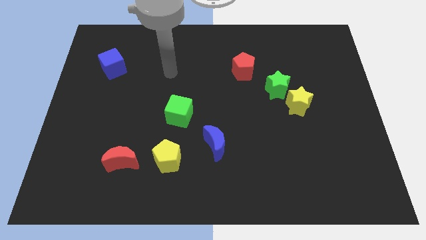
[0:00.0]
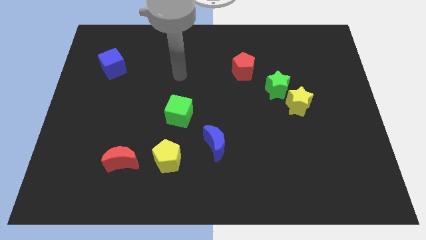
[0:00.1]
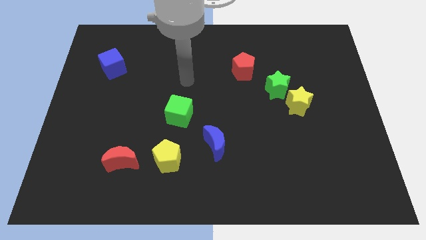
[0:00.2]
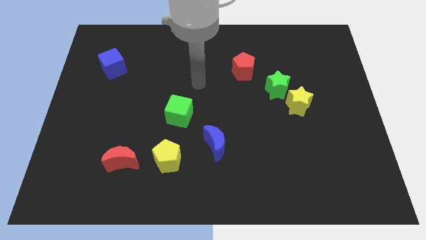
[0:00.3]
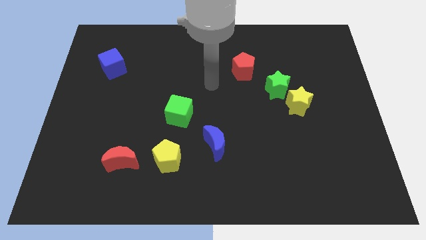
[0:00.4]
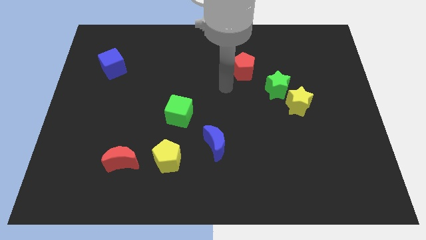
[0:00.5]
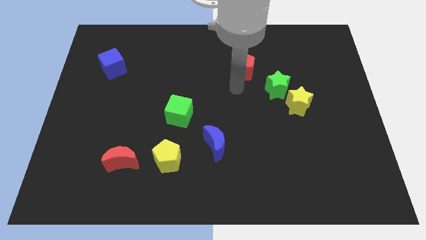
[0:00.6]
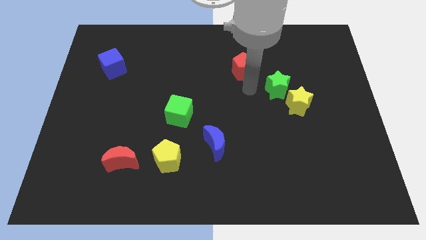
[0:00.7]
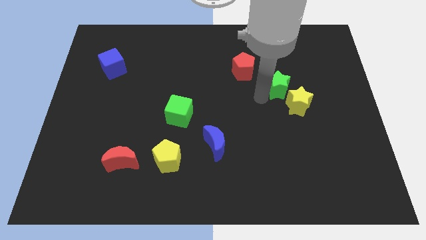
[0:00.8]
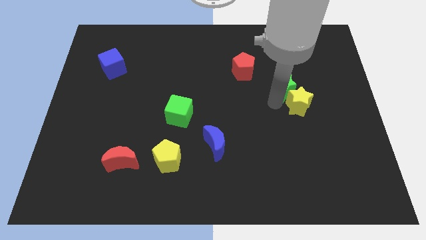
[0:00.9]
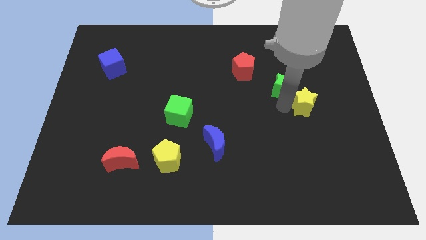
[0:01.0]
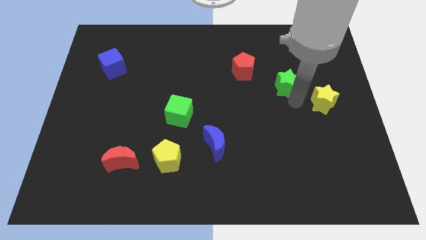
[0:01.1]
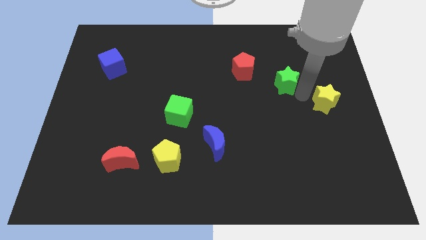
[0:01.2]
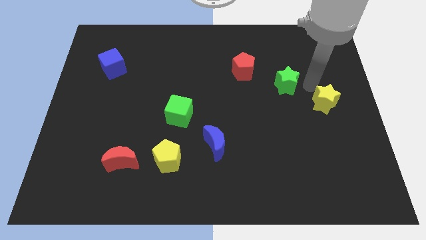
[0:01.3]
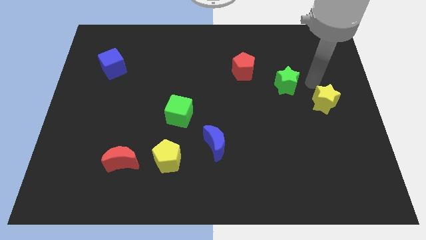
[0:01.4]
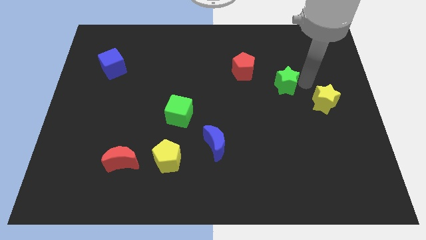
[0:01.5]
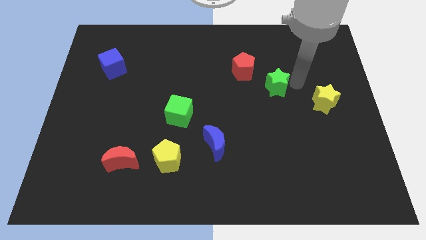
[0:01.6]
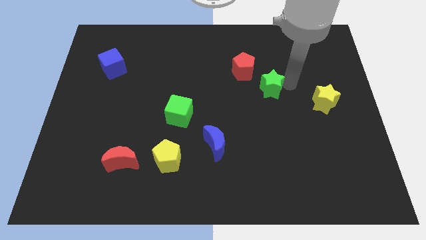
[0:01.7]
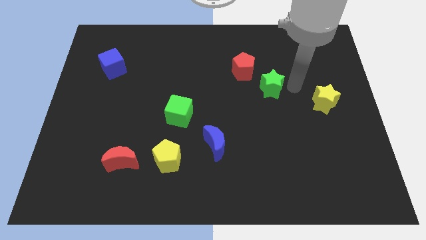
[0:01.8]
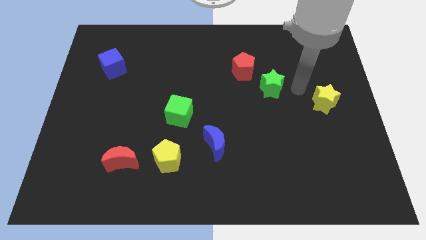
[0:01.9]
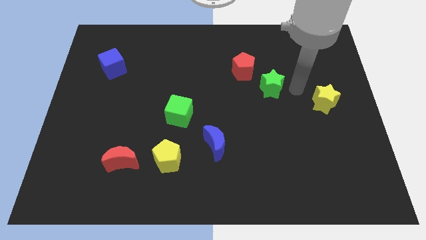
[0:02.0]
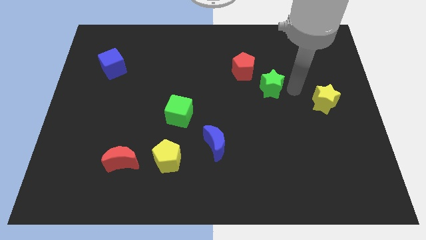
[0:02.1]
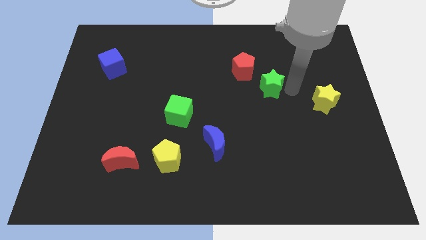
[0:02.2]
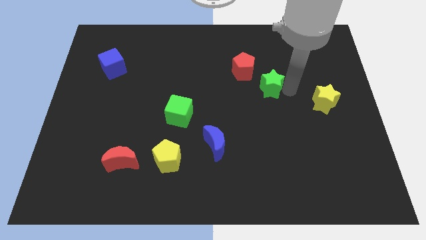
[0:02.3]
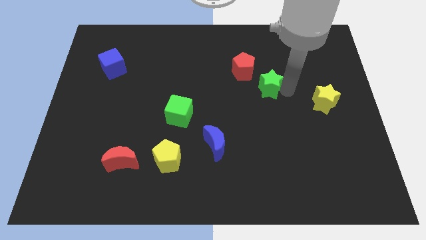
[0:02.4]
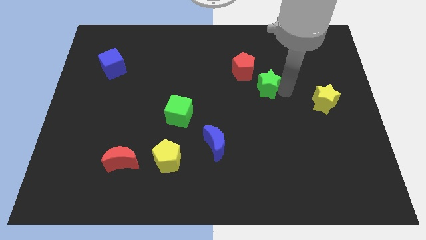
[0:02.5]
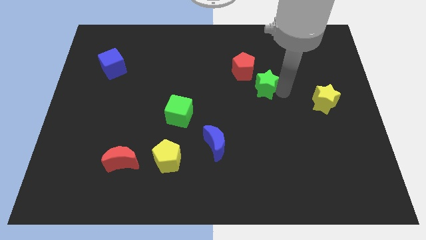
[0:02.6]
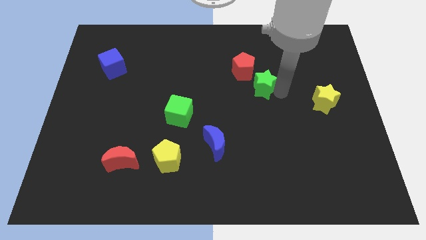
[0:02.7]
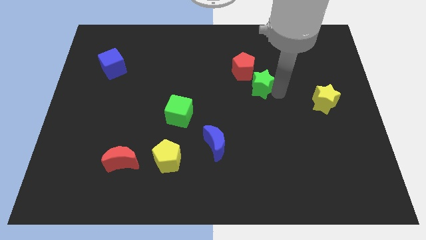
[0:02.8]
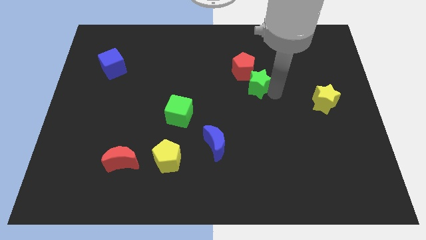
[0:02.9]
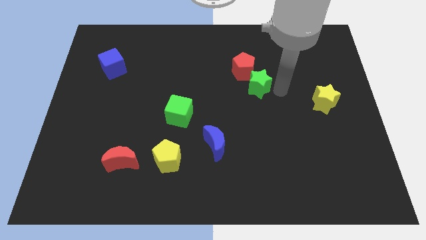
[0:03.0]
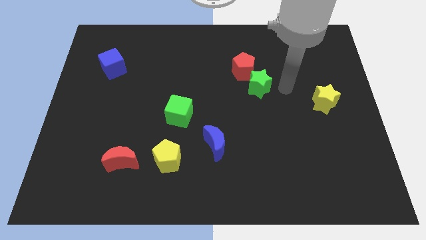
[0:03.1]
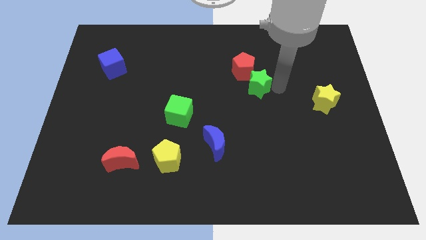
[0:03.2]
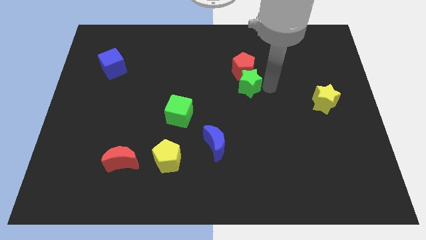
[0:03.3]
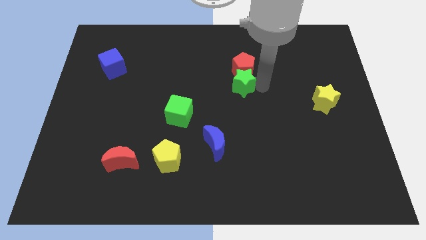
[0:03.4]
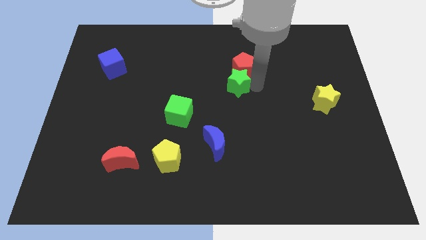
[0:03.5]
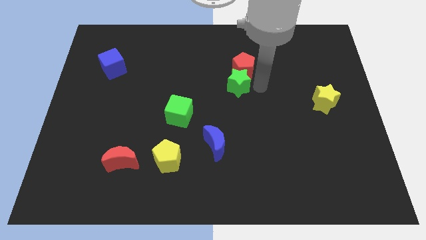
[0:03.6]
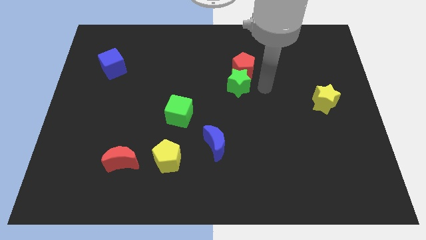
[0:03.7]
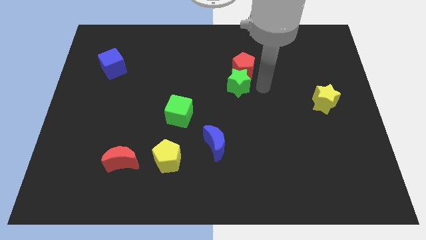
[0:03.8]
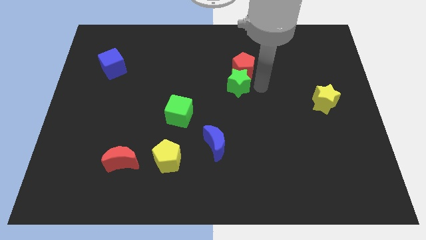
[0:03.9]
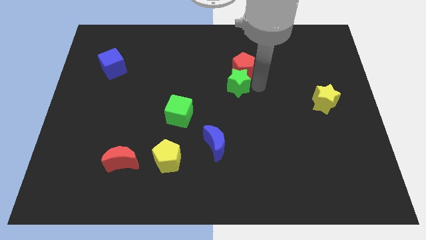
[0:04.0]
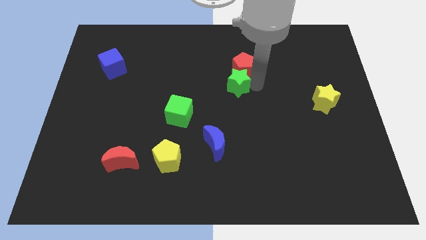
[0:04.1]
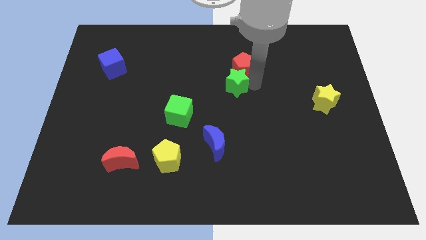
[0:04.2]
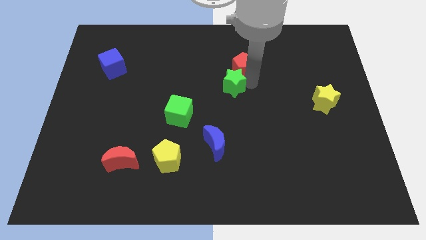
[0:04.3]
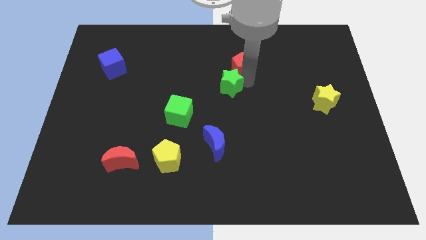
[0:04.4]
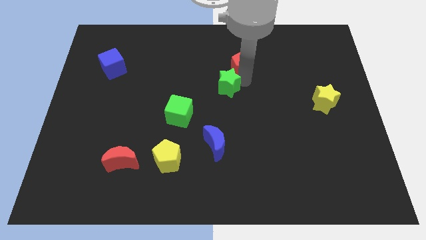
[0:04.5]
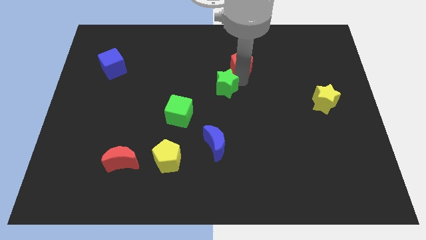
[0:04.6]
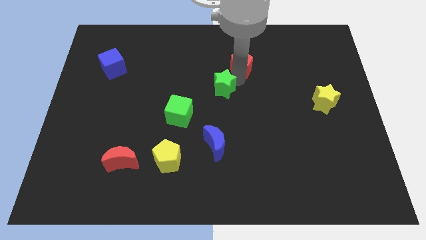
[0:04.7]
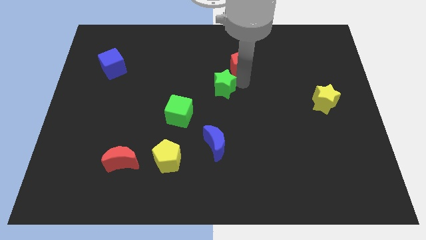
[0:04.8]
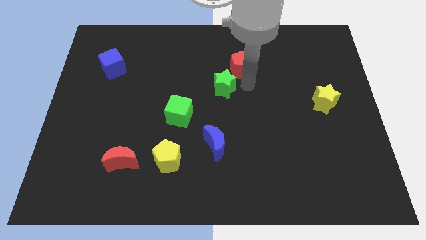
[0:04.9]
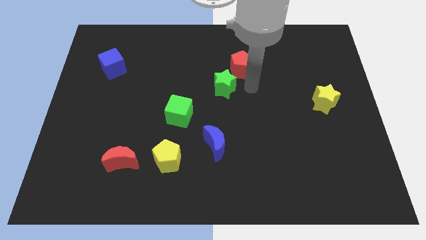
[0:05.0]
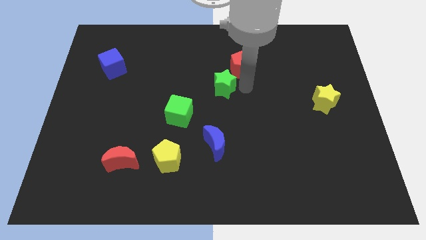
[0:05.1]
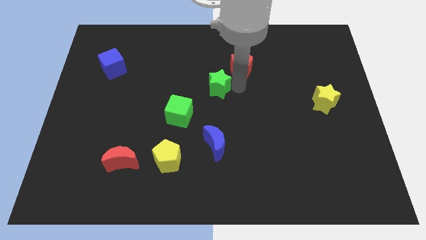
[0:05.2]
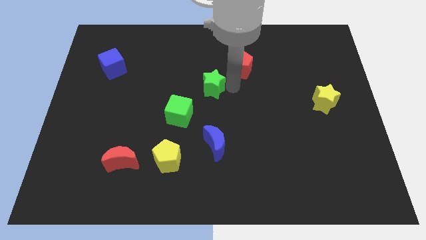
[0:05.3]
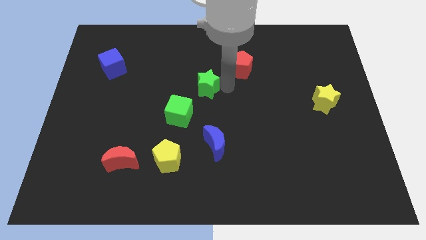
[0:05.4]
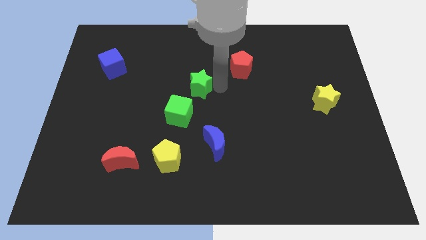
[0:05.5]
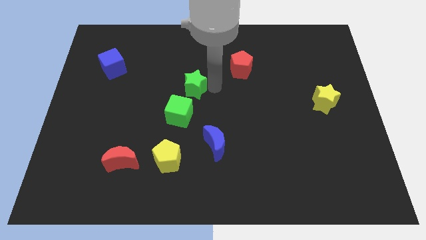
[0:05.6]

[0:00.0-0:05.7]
move the green star to the left

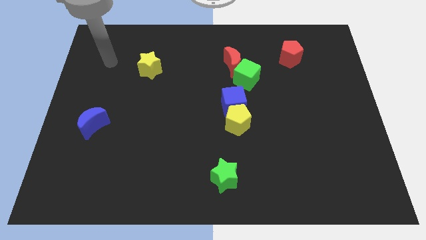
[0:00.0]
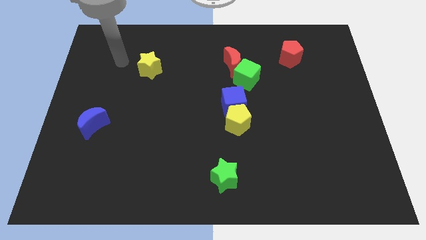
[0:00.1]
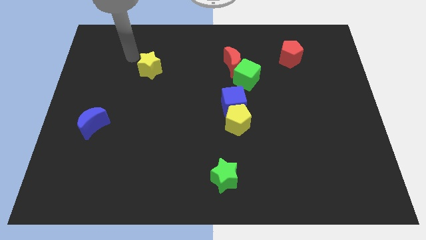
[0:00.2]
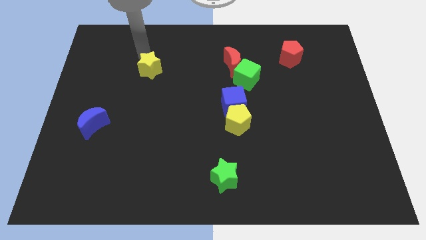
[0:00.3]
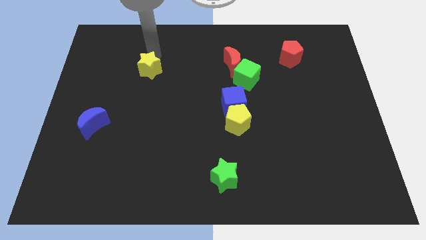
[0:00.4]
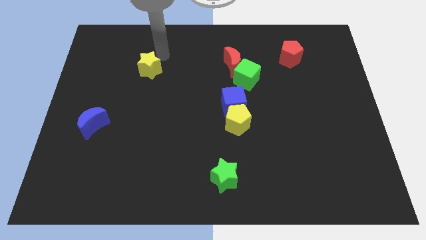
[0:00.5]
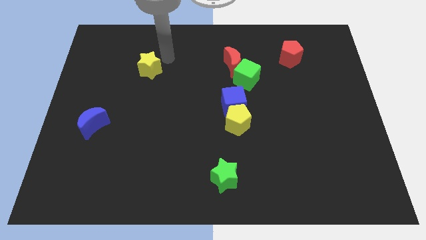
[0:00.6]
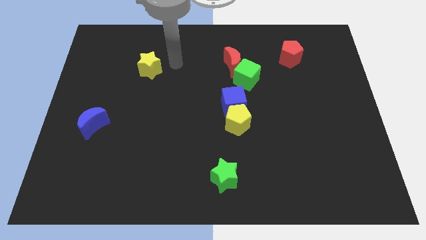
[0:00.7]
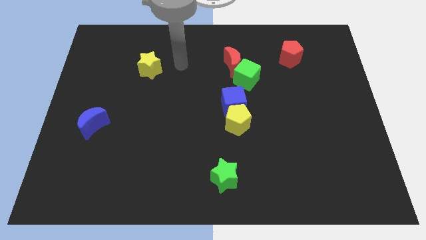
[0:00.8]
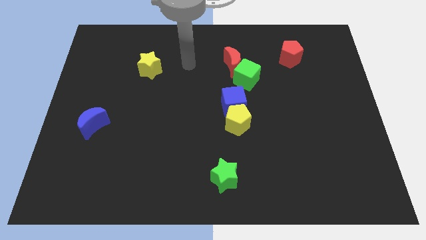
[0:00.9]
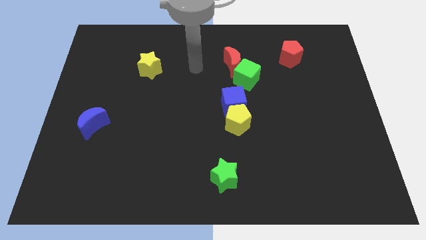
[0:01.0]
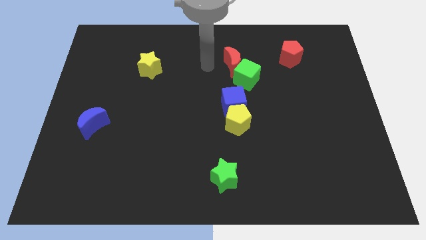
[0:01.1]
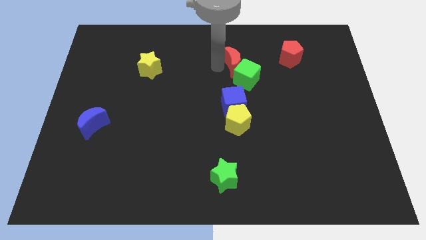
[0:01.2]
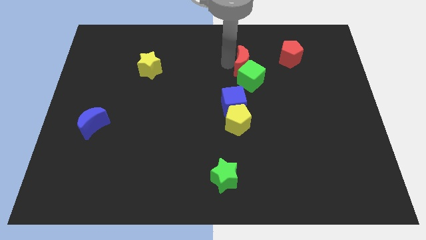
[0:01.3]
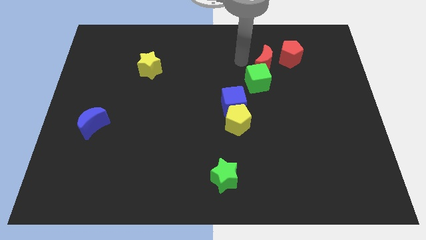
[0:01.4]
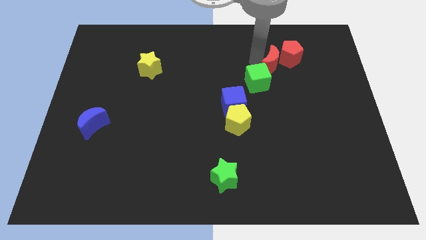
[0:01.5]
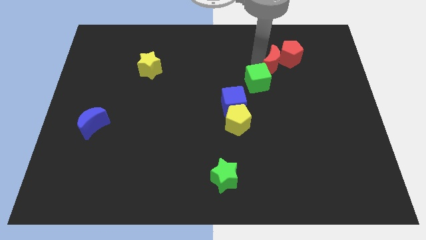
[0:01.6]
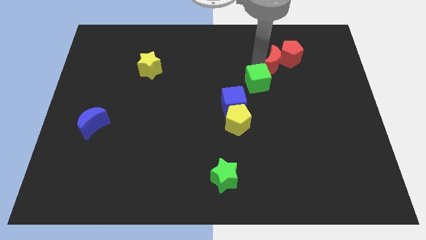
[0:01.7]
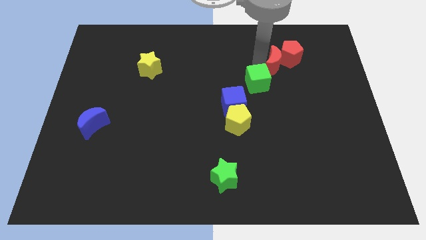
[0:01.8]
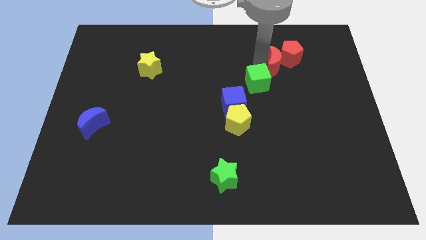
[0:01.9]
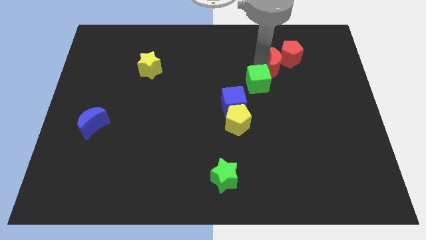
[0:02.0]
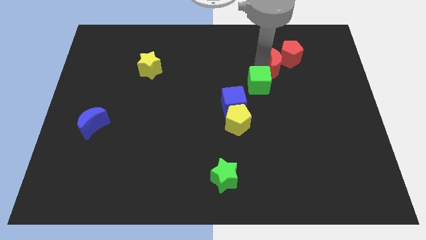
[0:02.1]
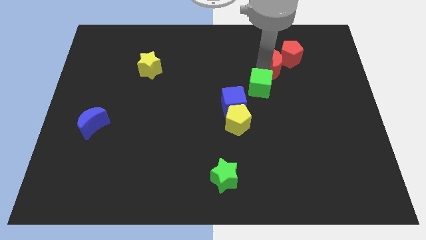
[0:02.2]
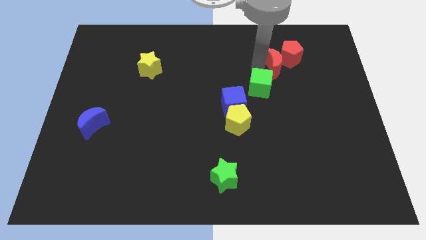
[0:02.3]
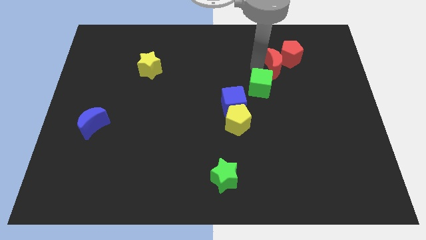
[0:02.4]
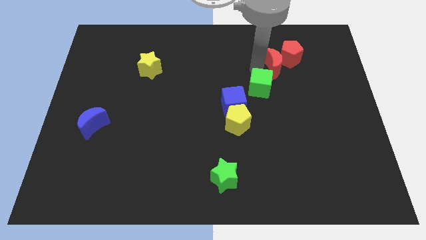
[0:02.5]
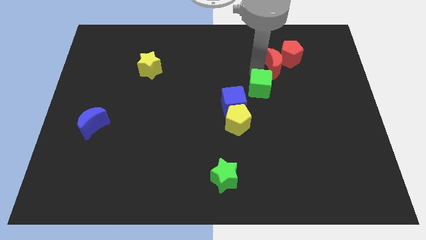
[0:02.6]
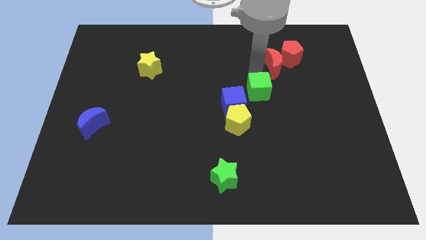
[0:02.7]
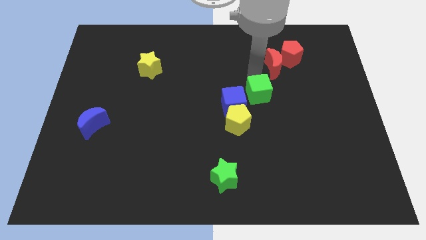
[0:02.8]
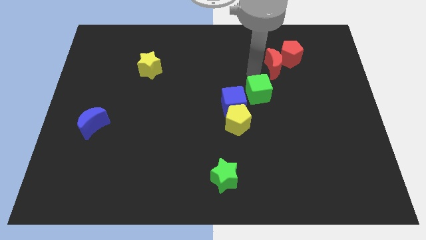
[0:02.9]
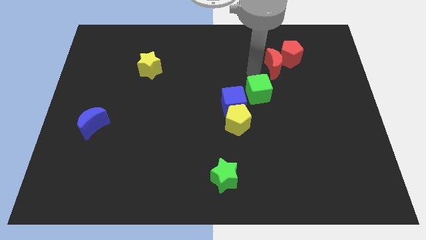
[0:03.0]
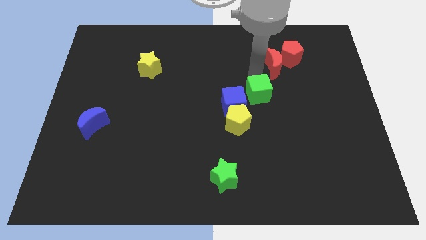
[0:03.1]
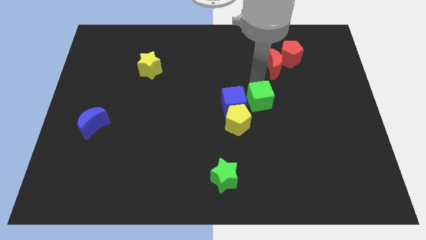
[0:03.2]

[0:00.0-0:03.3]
push the green cube somewhat downwards
